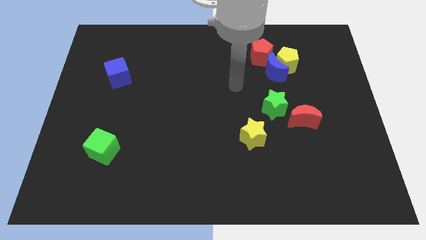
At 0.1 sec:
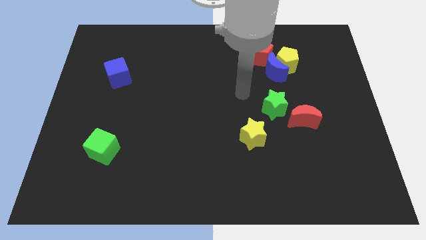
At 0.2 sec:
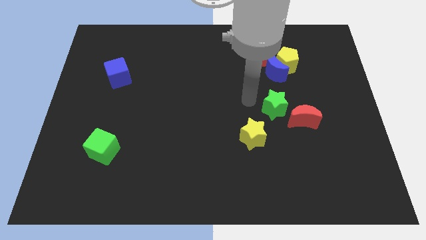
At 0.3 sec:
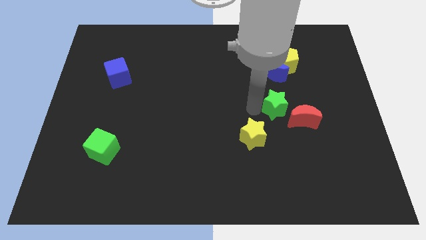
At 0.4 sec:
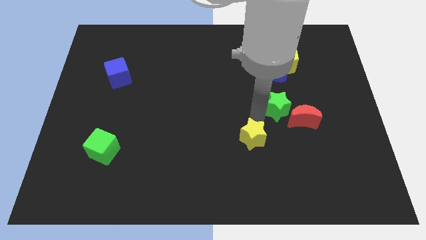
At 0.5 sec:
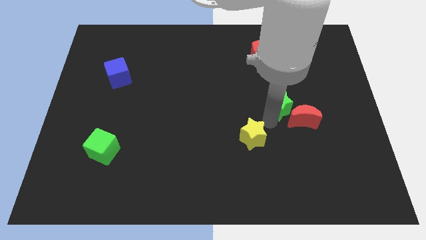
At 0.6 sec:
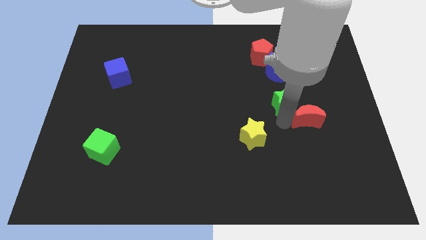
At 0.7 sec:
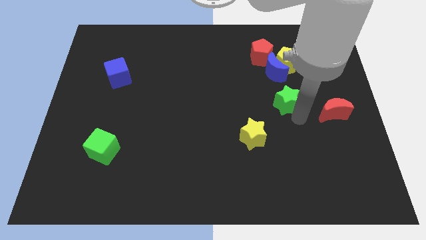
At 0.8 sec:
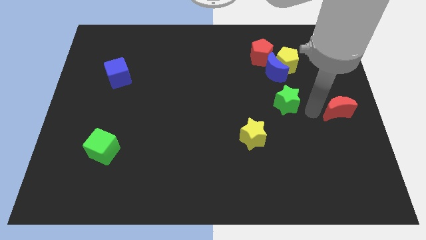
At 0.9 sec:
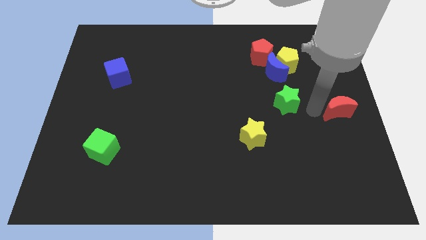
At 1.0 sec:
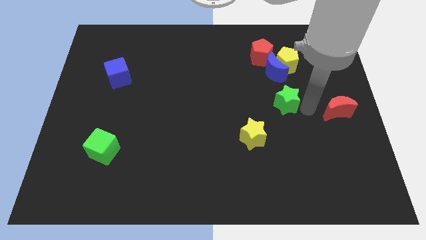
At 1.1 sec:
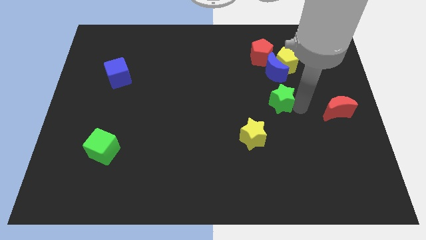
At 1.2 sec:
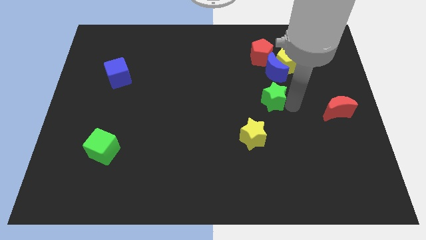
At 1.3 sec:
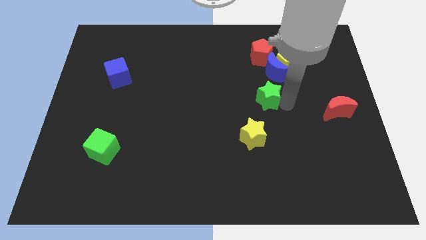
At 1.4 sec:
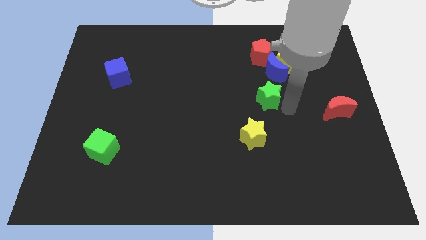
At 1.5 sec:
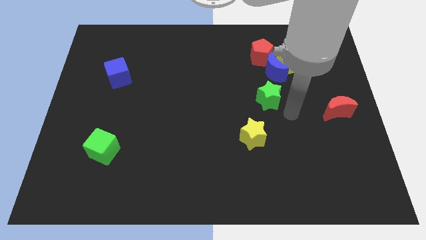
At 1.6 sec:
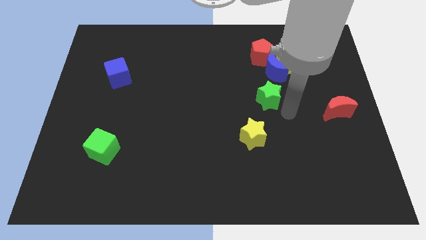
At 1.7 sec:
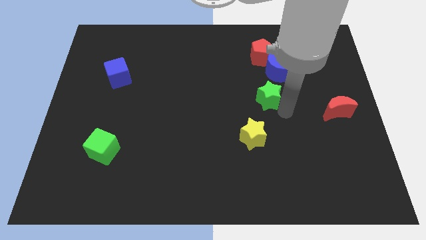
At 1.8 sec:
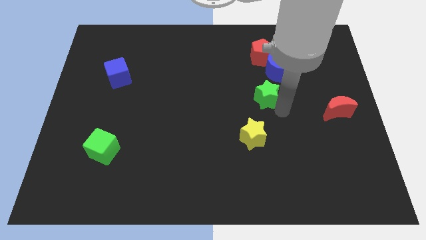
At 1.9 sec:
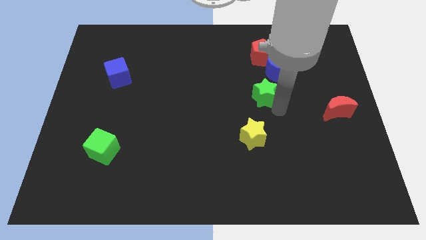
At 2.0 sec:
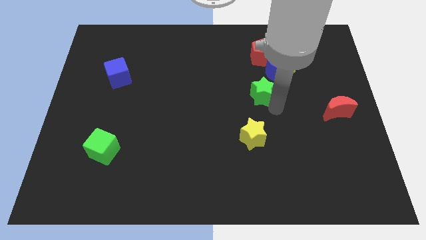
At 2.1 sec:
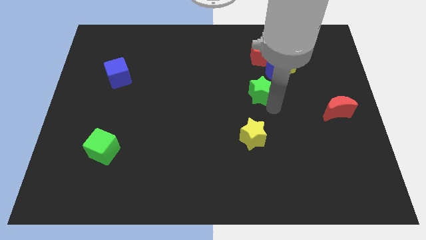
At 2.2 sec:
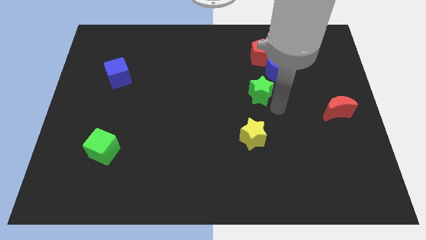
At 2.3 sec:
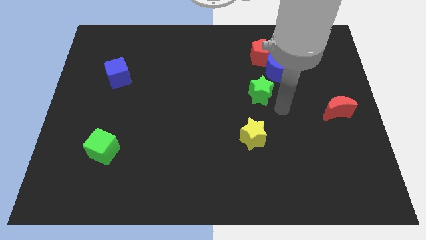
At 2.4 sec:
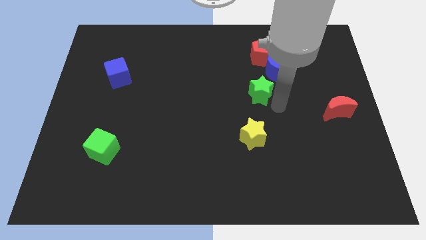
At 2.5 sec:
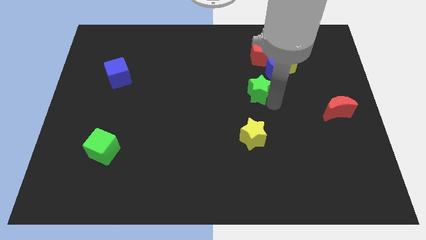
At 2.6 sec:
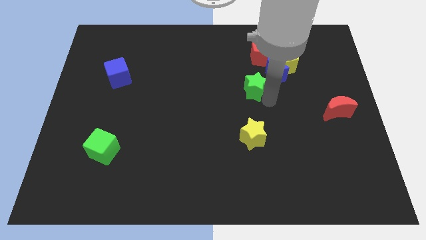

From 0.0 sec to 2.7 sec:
slightly push the green star diagonally up and left

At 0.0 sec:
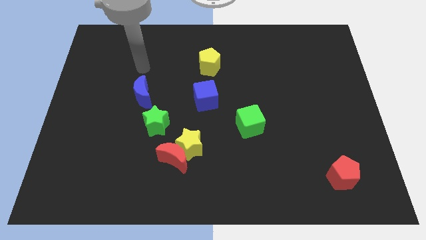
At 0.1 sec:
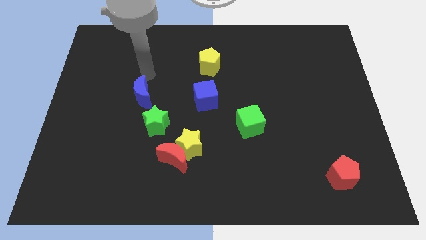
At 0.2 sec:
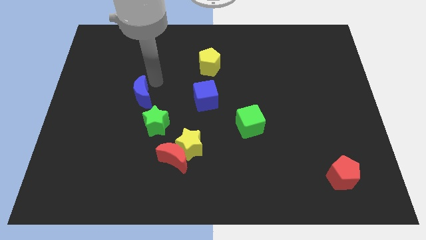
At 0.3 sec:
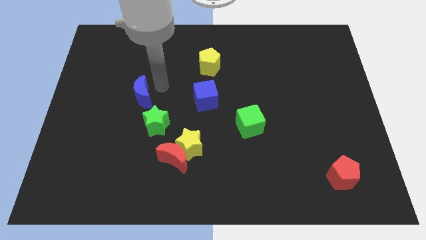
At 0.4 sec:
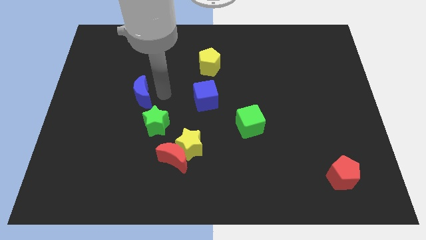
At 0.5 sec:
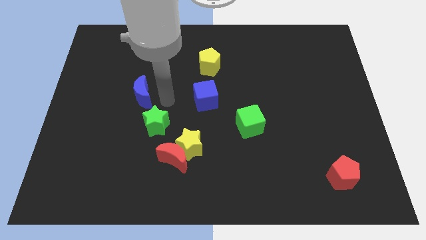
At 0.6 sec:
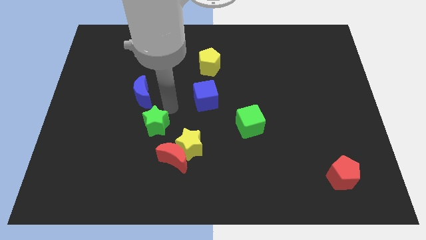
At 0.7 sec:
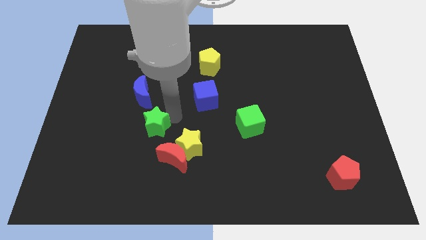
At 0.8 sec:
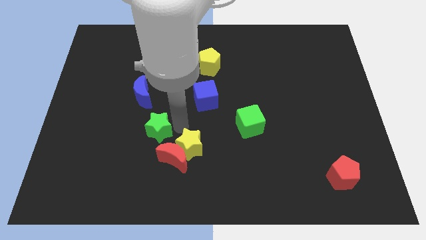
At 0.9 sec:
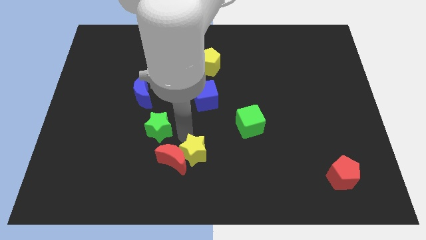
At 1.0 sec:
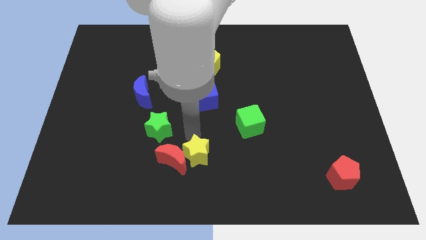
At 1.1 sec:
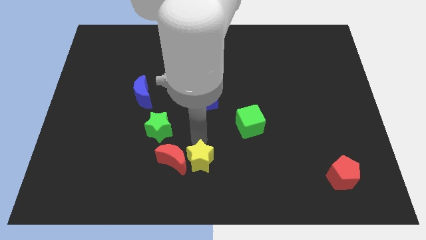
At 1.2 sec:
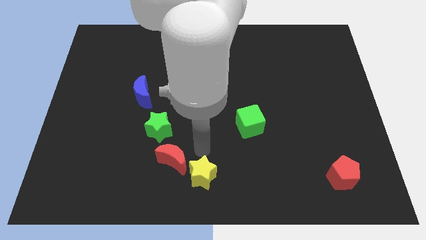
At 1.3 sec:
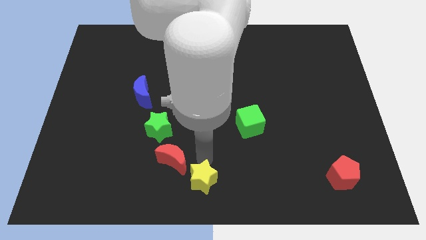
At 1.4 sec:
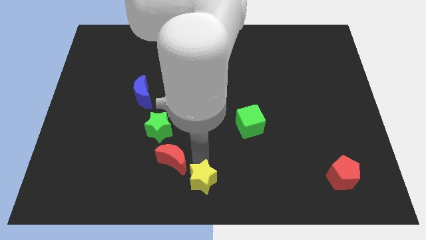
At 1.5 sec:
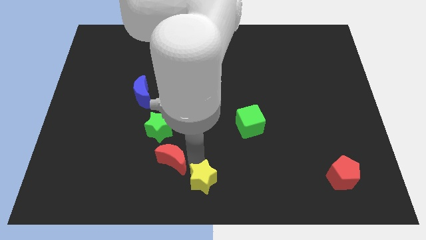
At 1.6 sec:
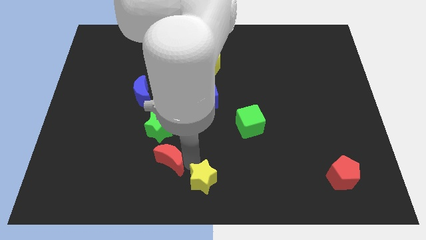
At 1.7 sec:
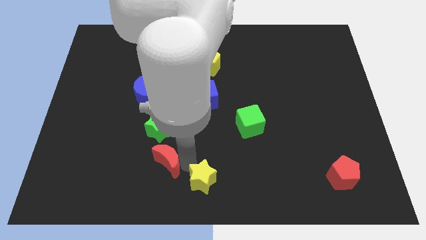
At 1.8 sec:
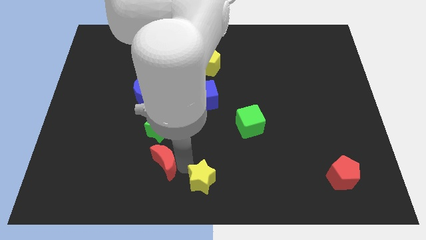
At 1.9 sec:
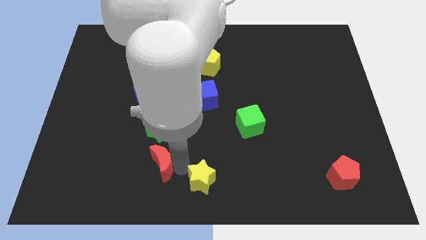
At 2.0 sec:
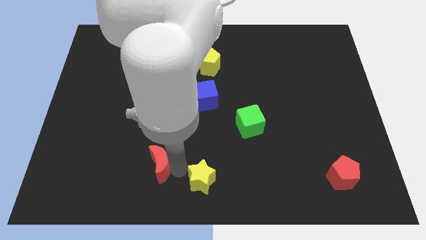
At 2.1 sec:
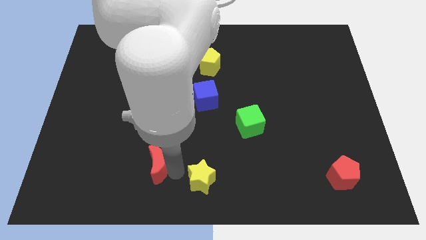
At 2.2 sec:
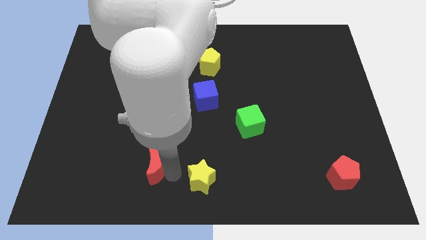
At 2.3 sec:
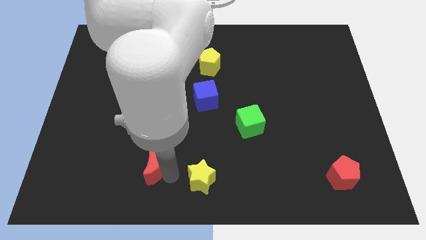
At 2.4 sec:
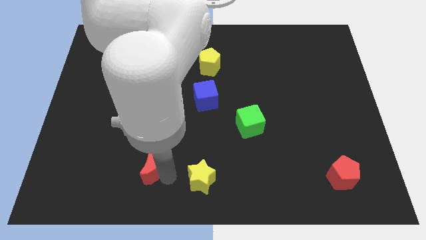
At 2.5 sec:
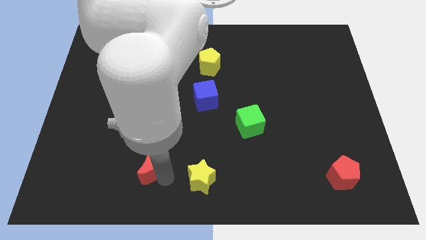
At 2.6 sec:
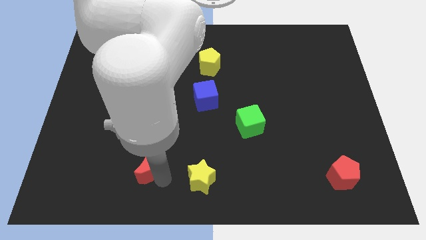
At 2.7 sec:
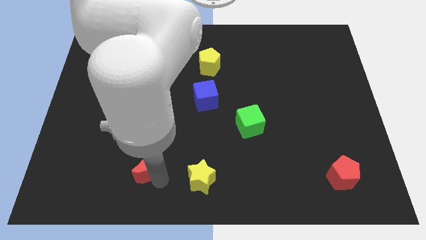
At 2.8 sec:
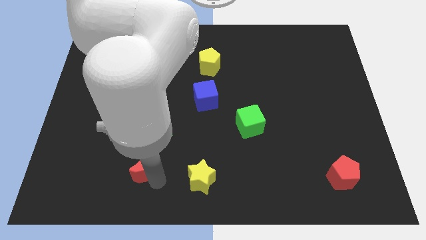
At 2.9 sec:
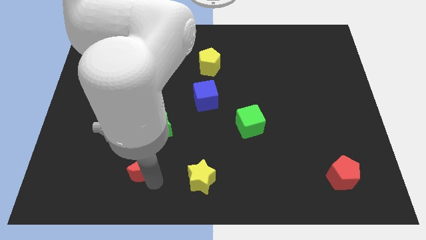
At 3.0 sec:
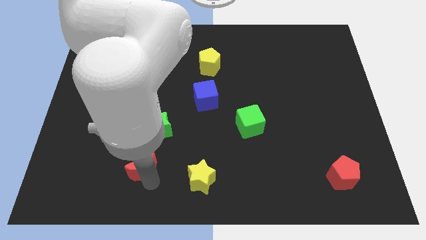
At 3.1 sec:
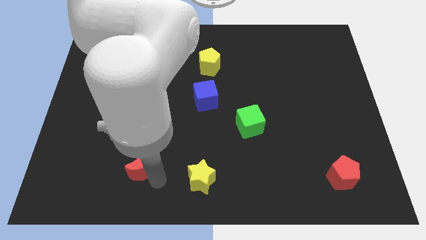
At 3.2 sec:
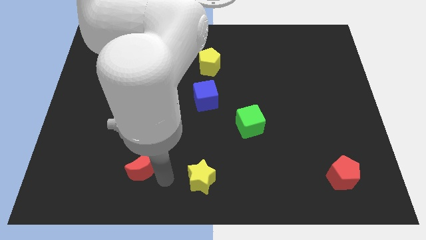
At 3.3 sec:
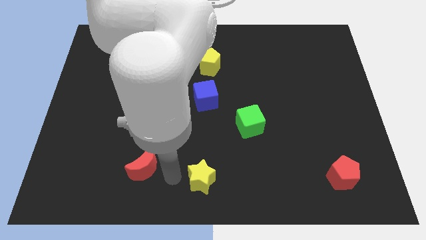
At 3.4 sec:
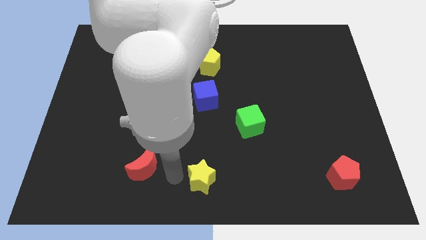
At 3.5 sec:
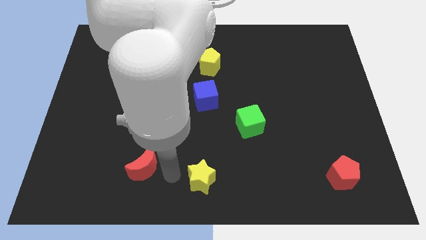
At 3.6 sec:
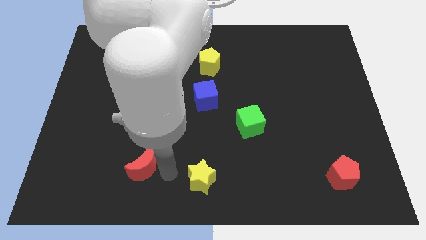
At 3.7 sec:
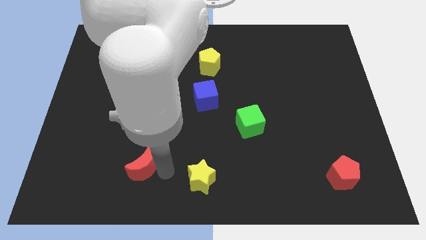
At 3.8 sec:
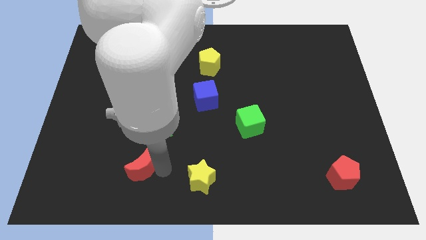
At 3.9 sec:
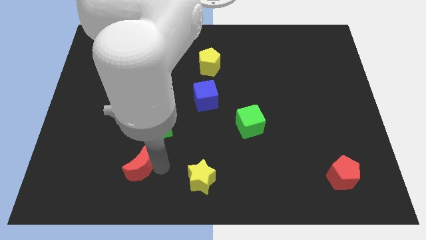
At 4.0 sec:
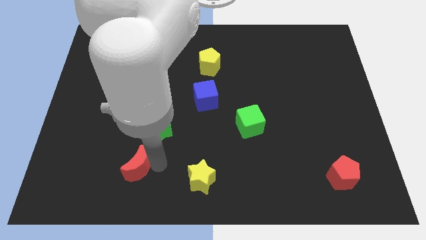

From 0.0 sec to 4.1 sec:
push the red moon a little bit to the left

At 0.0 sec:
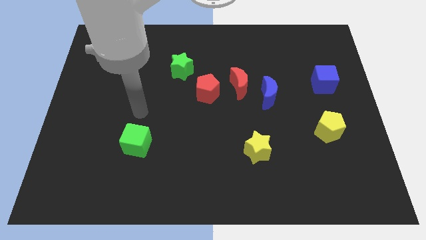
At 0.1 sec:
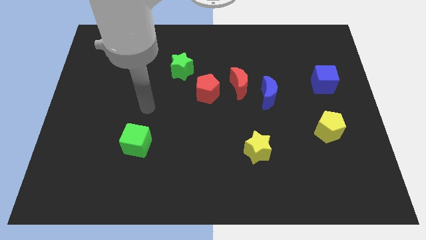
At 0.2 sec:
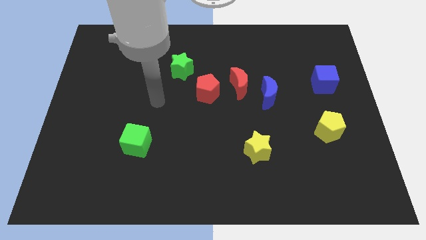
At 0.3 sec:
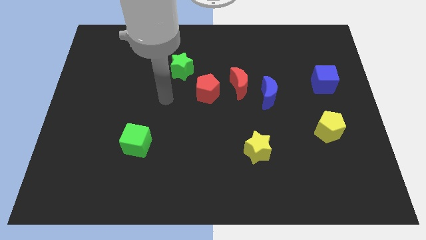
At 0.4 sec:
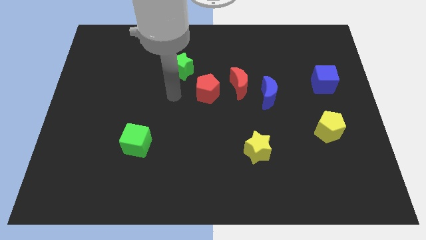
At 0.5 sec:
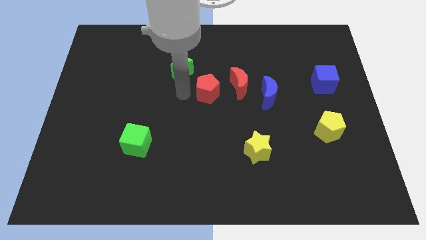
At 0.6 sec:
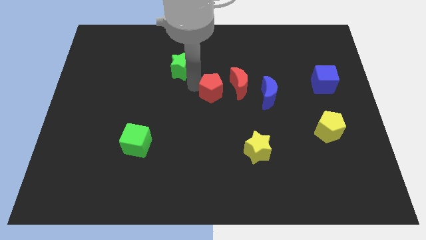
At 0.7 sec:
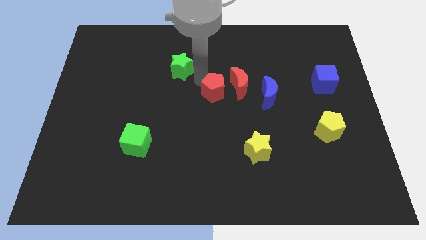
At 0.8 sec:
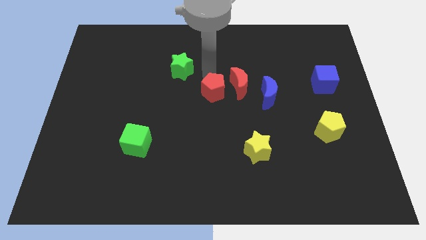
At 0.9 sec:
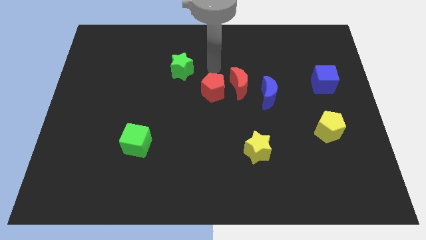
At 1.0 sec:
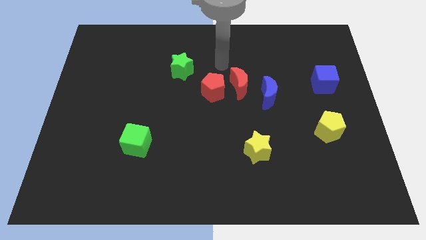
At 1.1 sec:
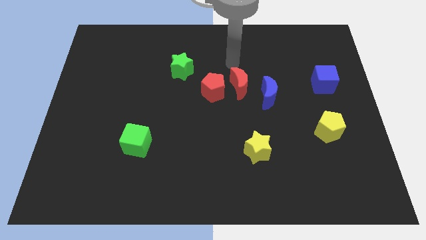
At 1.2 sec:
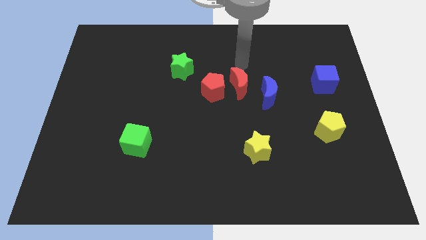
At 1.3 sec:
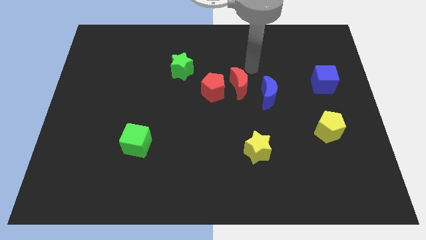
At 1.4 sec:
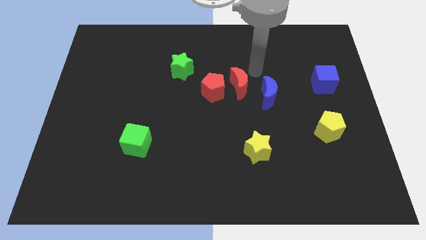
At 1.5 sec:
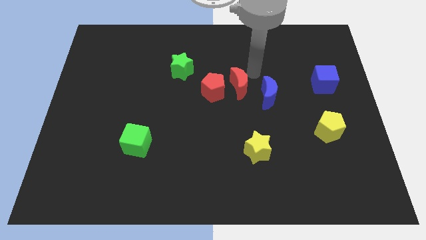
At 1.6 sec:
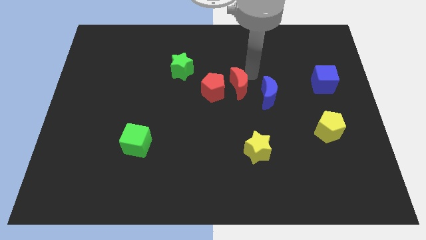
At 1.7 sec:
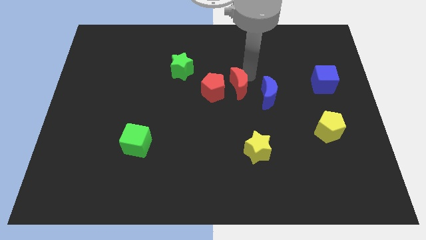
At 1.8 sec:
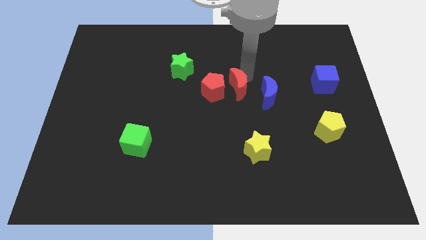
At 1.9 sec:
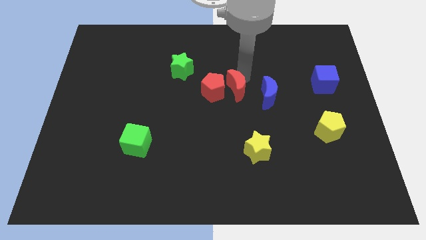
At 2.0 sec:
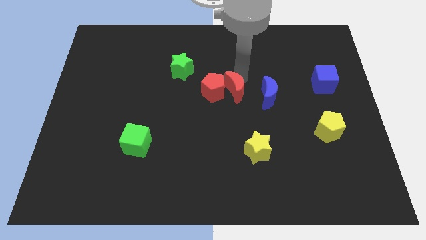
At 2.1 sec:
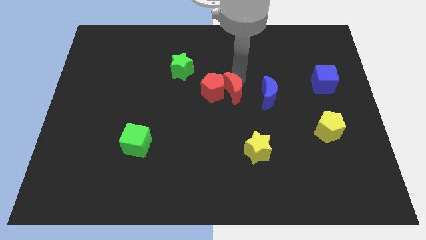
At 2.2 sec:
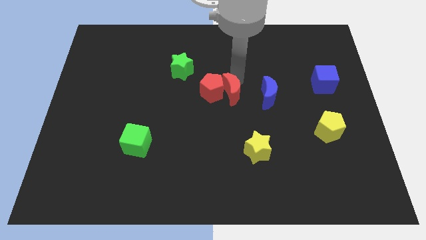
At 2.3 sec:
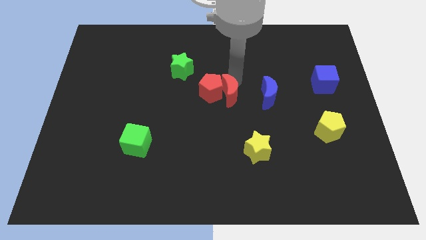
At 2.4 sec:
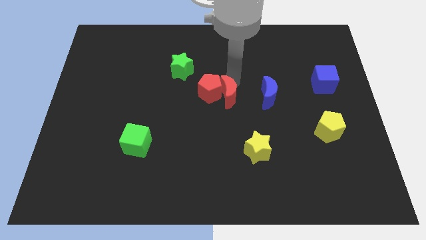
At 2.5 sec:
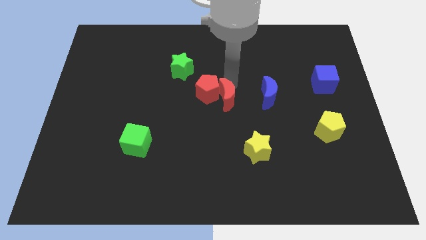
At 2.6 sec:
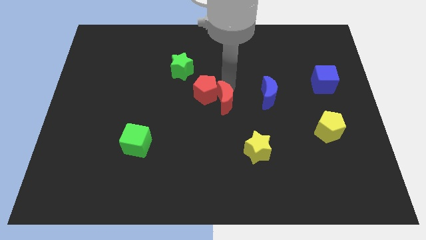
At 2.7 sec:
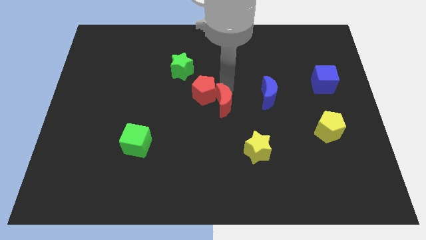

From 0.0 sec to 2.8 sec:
push the red moon down and left diagonally a little bit
